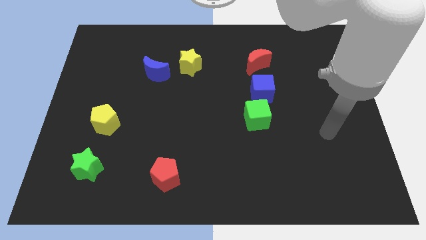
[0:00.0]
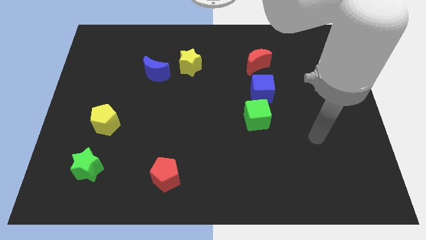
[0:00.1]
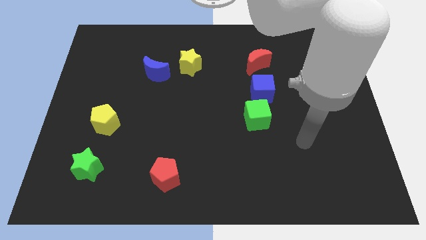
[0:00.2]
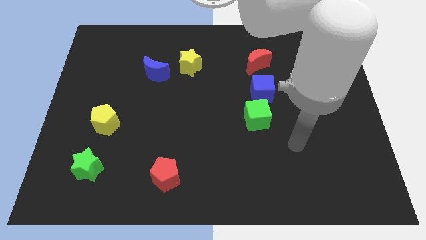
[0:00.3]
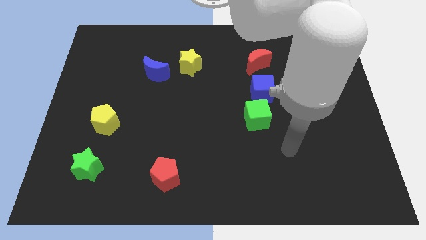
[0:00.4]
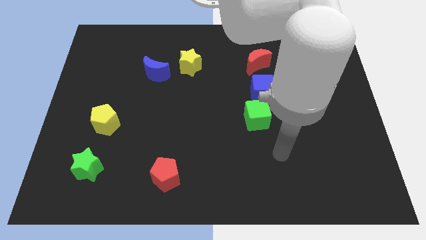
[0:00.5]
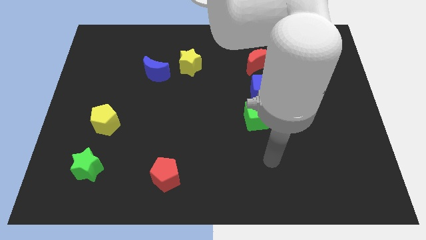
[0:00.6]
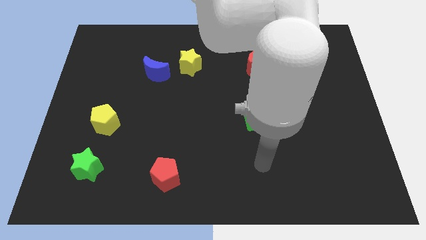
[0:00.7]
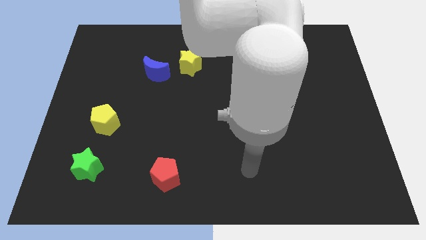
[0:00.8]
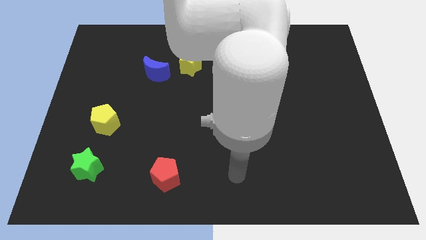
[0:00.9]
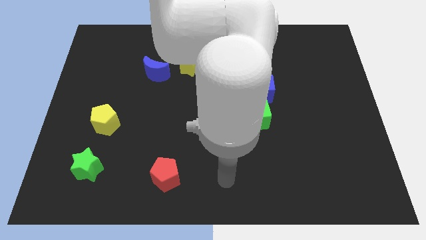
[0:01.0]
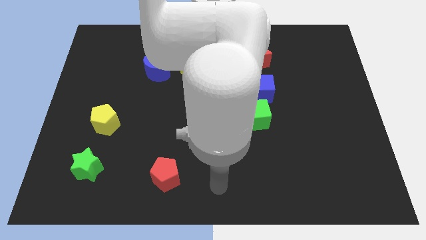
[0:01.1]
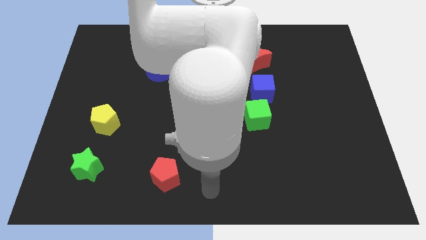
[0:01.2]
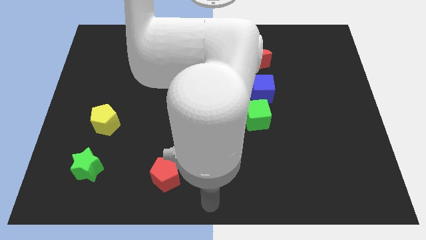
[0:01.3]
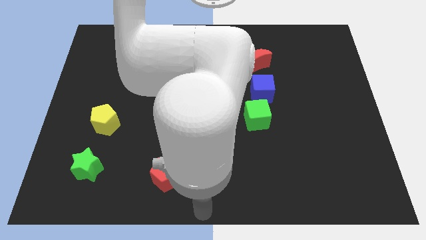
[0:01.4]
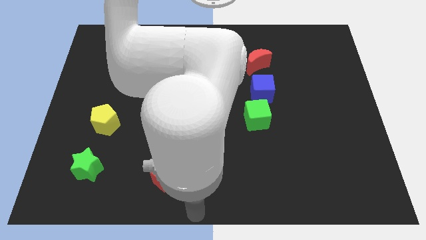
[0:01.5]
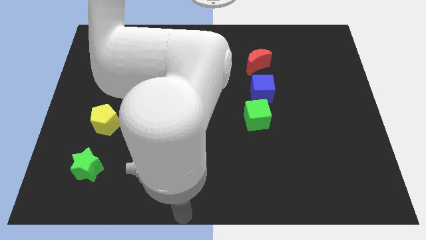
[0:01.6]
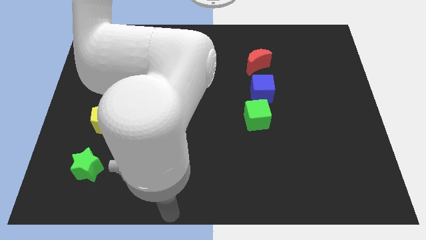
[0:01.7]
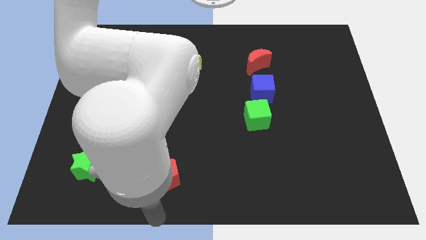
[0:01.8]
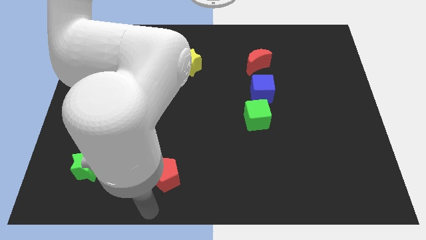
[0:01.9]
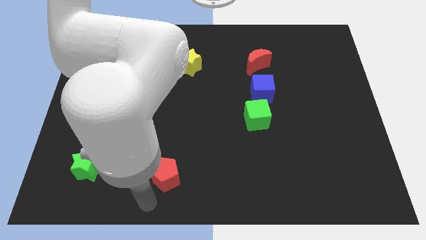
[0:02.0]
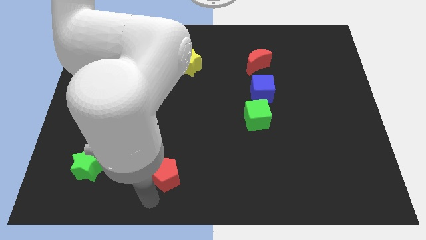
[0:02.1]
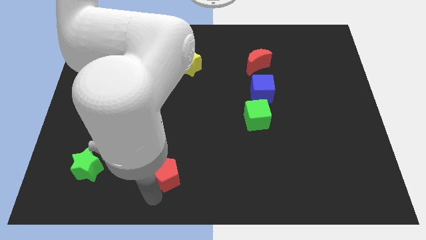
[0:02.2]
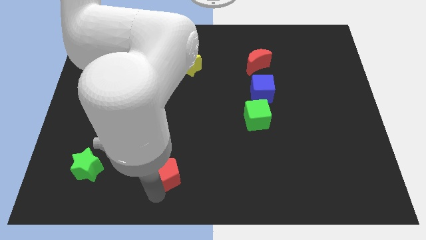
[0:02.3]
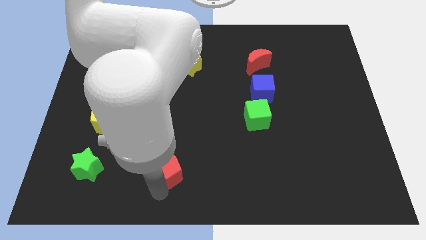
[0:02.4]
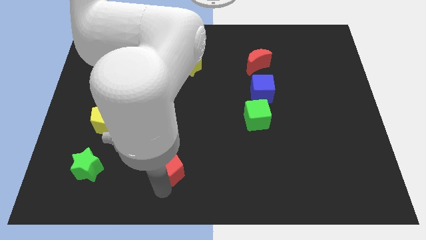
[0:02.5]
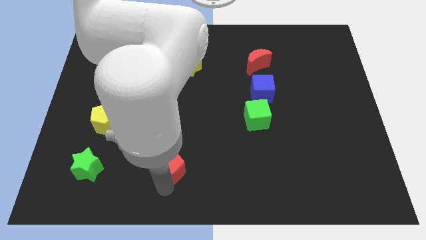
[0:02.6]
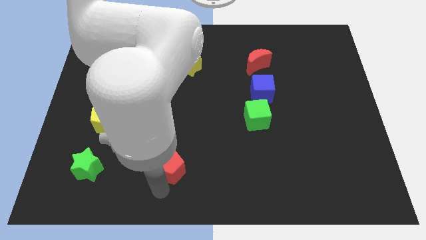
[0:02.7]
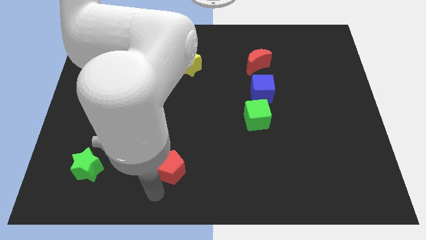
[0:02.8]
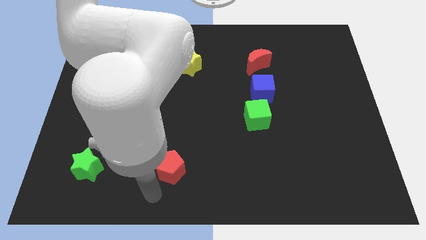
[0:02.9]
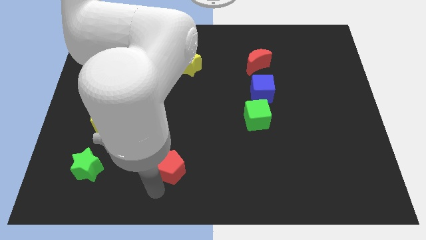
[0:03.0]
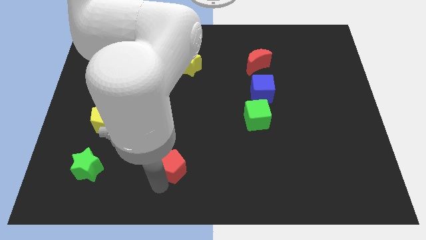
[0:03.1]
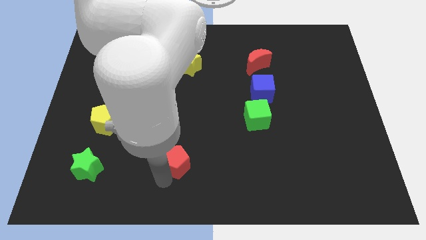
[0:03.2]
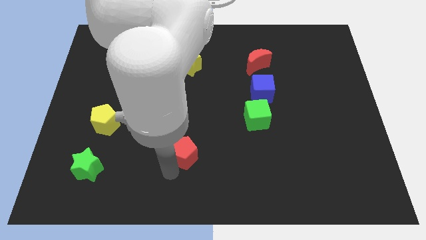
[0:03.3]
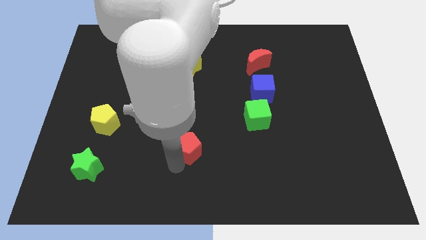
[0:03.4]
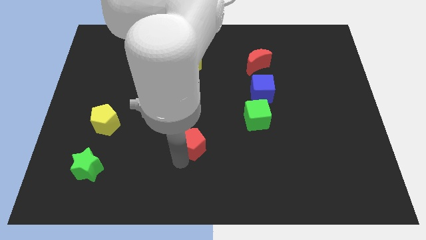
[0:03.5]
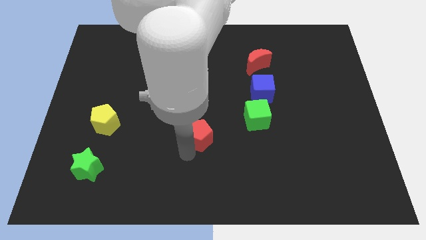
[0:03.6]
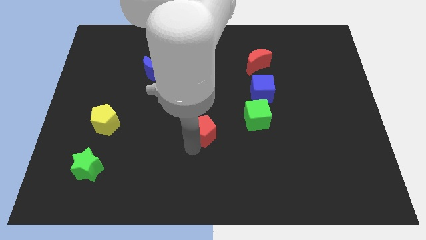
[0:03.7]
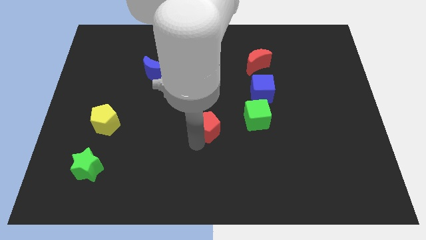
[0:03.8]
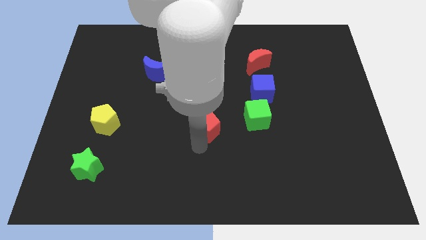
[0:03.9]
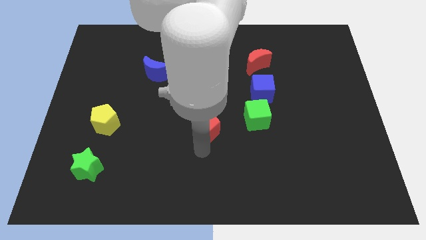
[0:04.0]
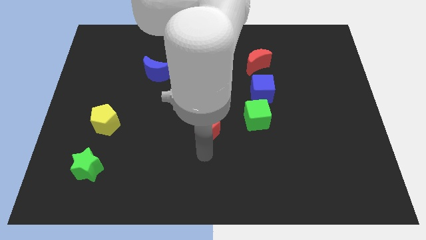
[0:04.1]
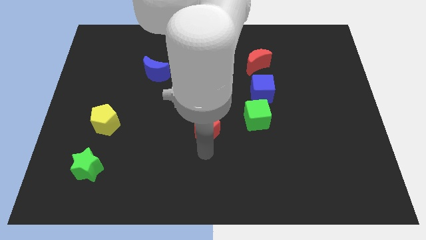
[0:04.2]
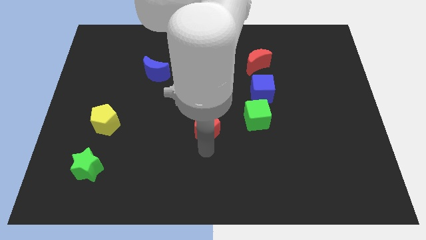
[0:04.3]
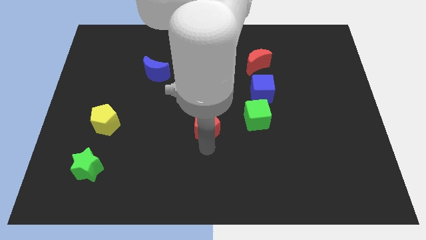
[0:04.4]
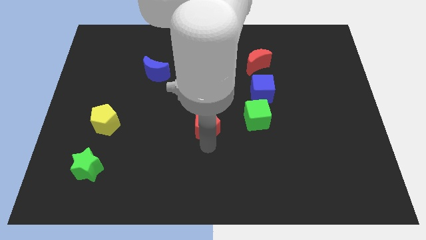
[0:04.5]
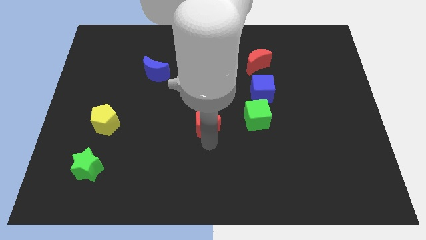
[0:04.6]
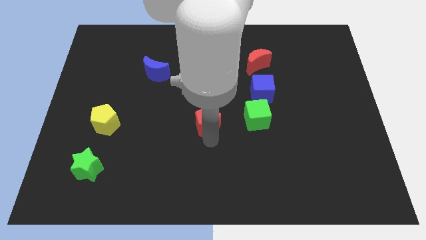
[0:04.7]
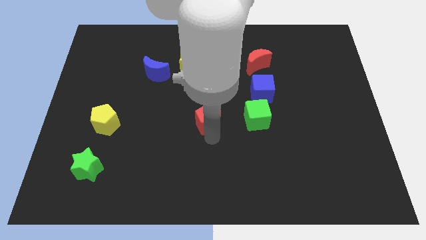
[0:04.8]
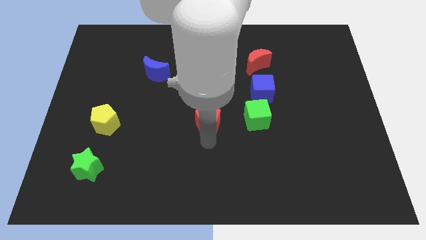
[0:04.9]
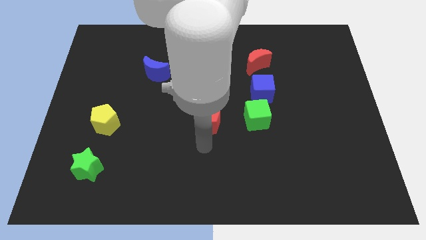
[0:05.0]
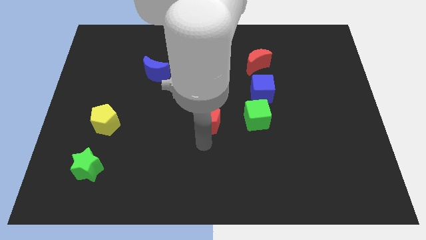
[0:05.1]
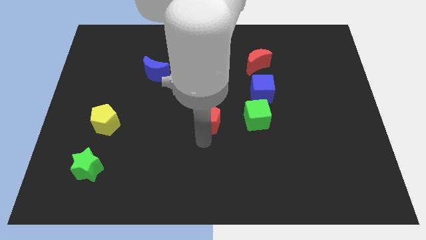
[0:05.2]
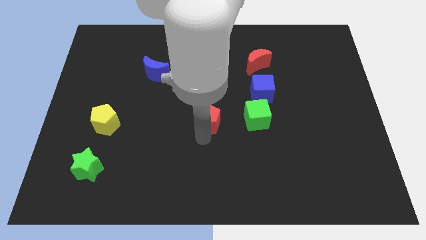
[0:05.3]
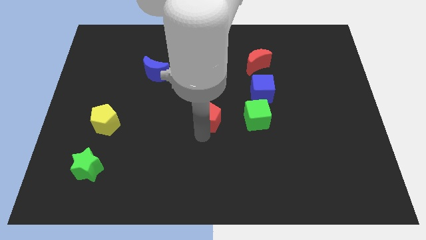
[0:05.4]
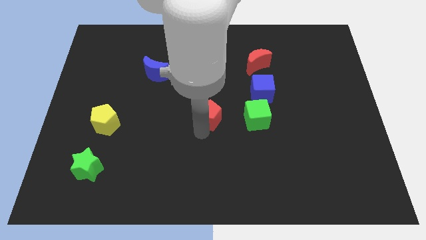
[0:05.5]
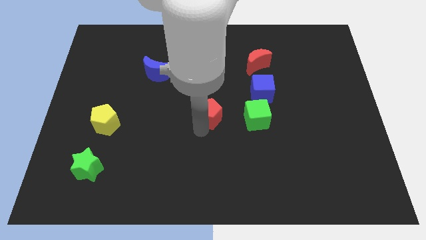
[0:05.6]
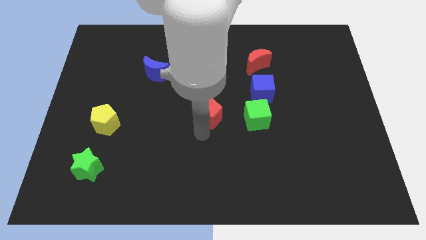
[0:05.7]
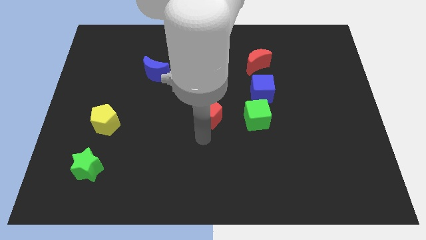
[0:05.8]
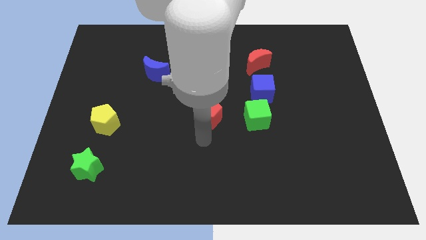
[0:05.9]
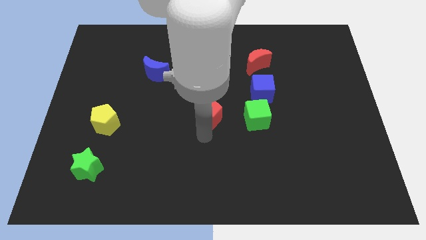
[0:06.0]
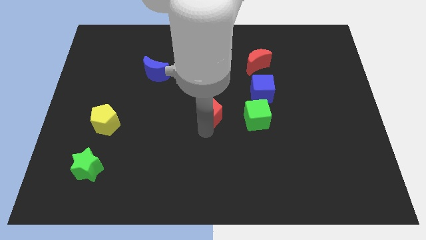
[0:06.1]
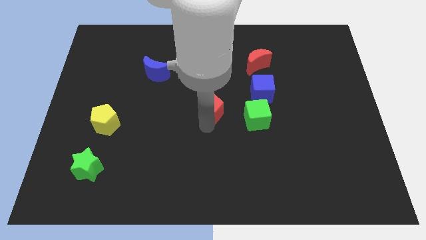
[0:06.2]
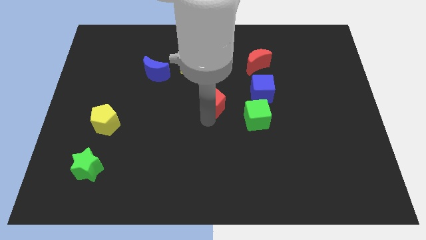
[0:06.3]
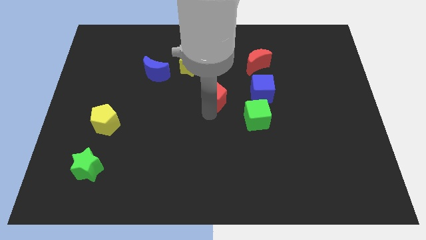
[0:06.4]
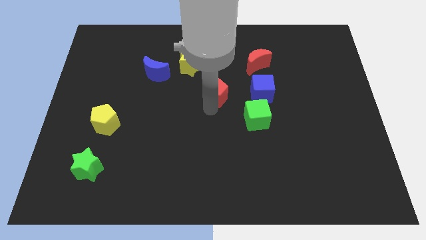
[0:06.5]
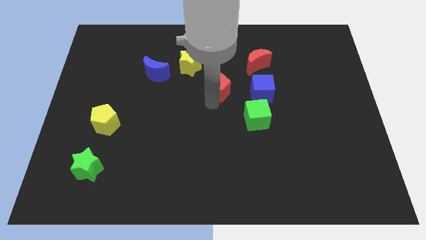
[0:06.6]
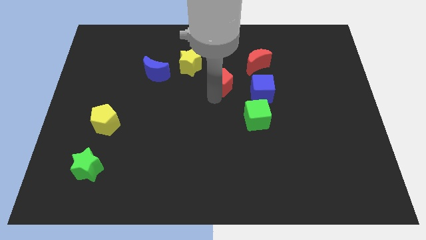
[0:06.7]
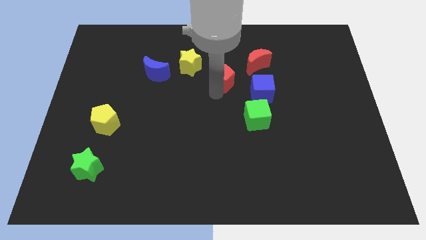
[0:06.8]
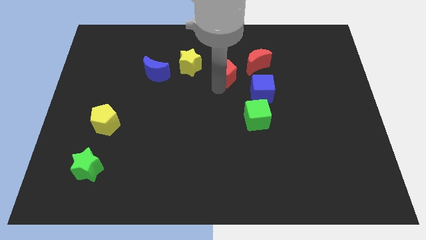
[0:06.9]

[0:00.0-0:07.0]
put the red pentagon just right of the yellow star
